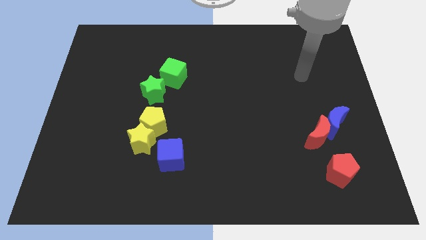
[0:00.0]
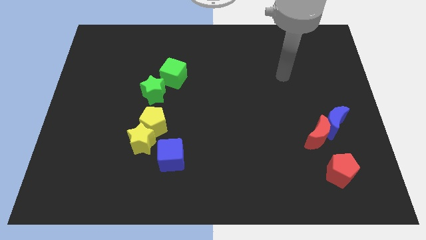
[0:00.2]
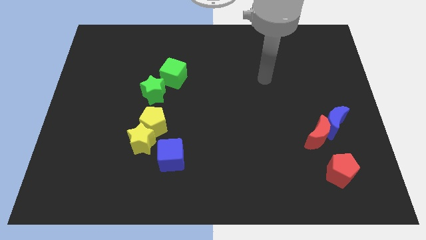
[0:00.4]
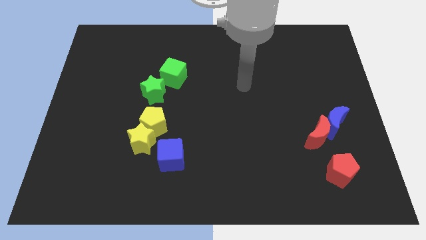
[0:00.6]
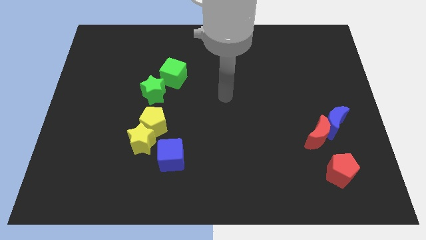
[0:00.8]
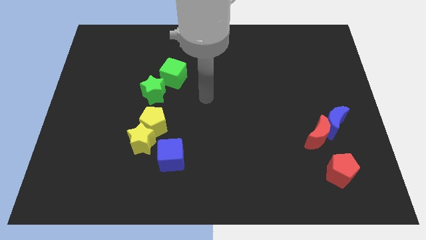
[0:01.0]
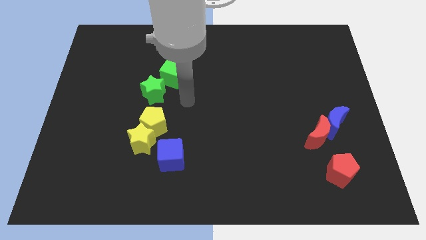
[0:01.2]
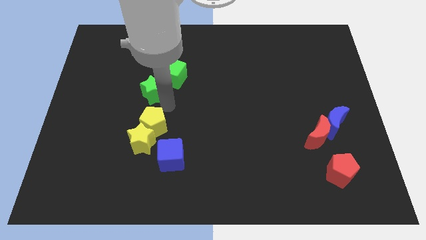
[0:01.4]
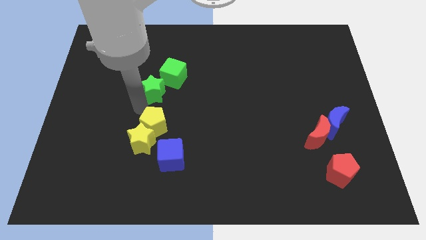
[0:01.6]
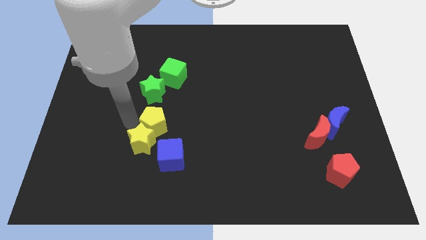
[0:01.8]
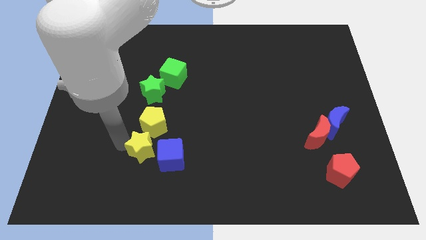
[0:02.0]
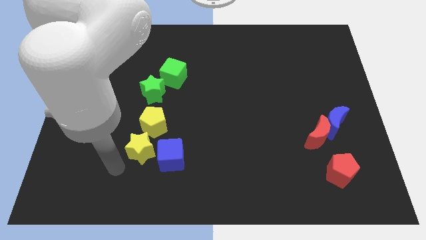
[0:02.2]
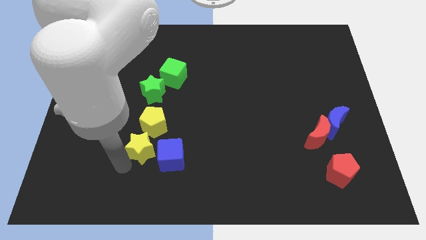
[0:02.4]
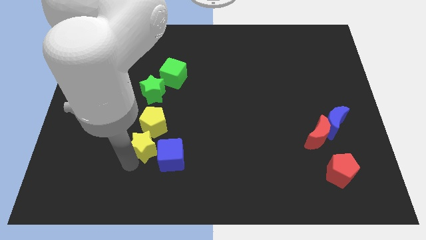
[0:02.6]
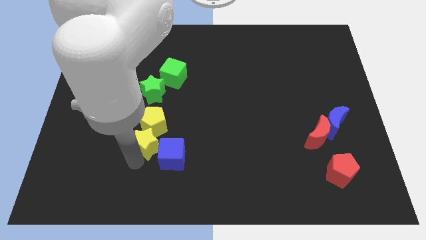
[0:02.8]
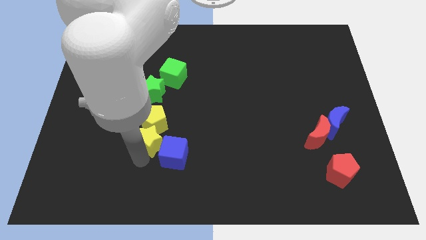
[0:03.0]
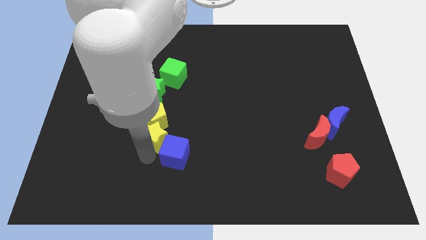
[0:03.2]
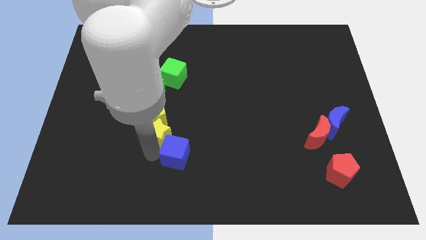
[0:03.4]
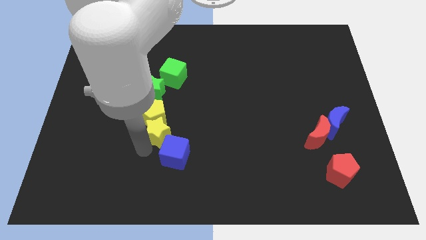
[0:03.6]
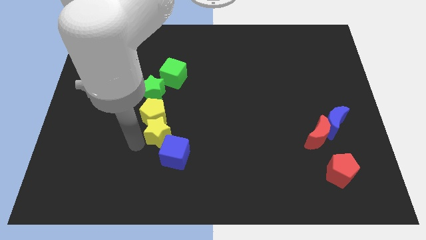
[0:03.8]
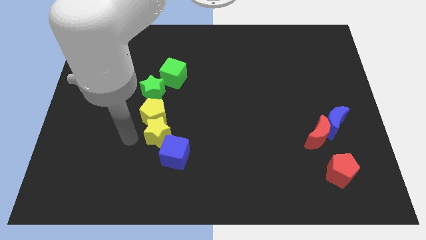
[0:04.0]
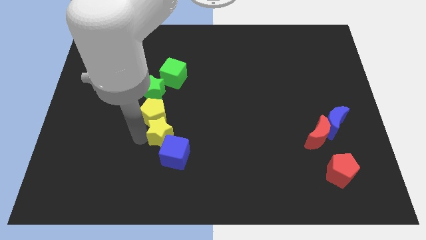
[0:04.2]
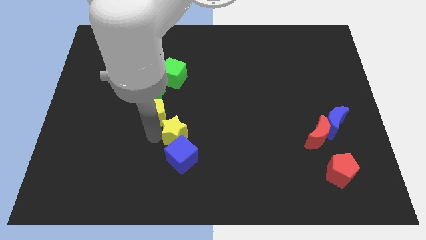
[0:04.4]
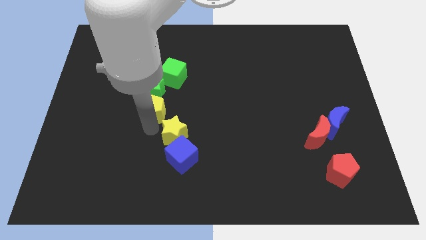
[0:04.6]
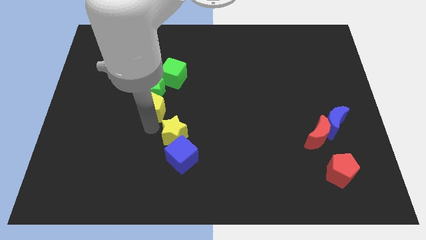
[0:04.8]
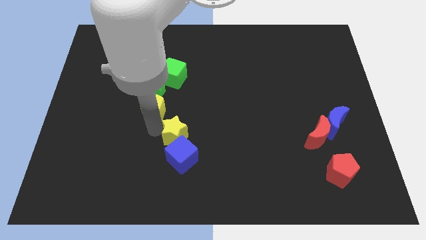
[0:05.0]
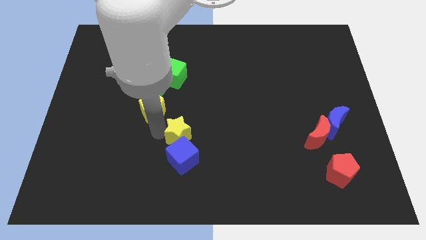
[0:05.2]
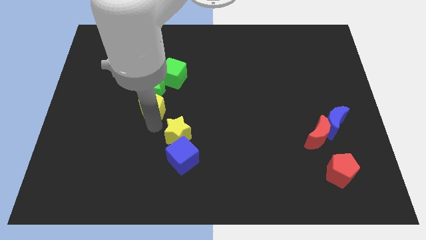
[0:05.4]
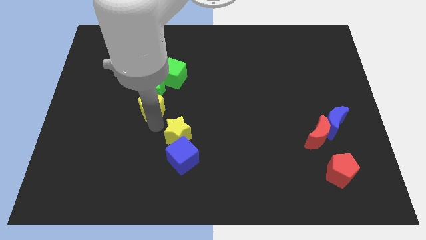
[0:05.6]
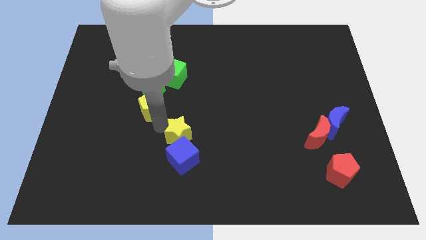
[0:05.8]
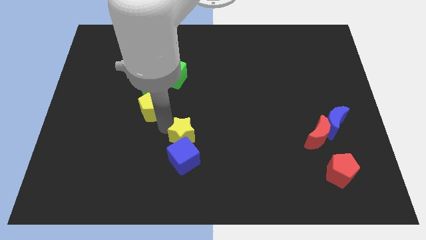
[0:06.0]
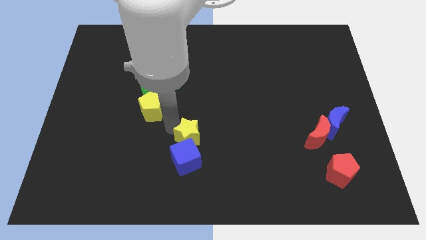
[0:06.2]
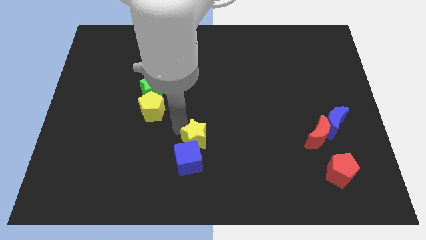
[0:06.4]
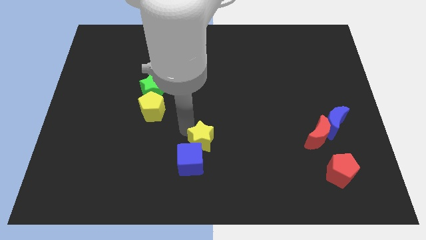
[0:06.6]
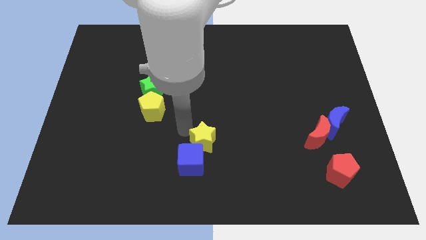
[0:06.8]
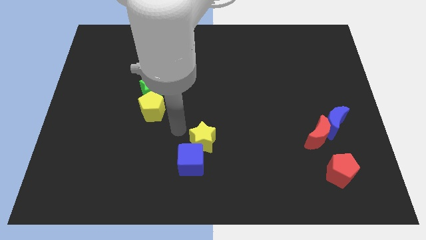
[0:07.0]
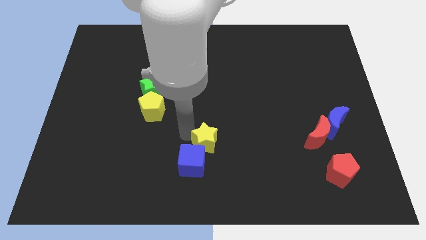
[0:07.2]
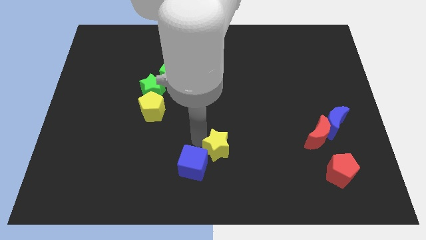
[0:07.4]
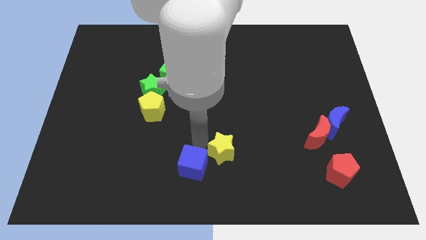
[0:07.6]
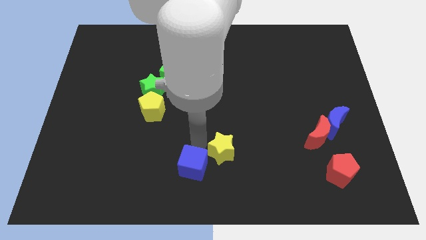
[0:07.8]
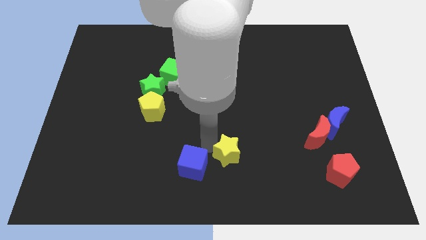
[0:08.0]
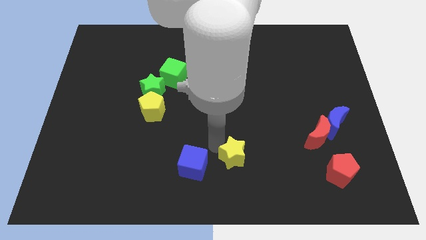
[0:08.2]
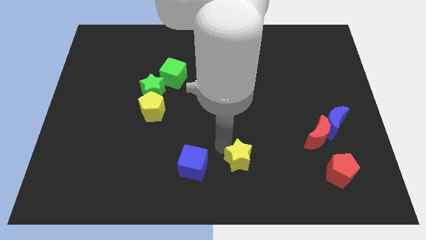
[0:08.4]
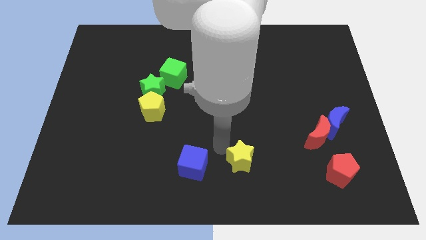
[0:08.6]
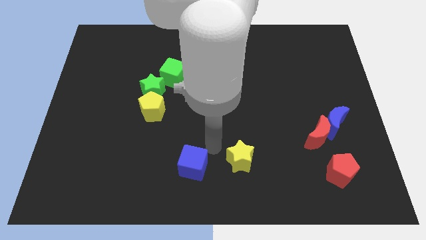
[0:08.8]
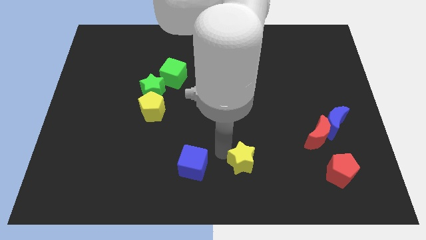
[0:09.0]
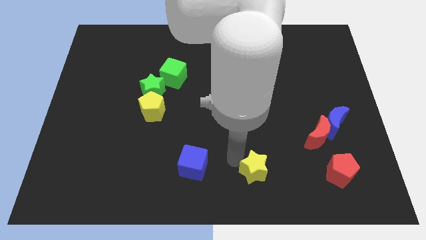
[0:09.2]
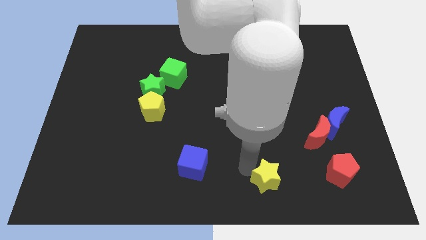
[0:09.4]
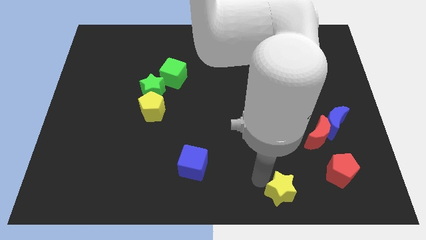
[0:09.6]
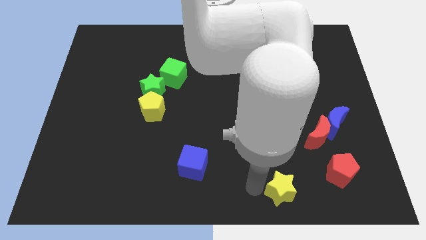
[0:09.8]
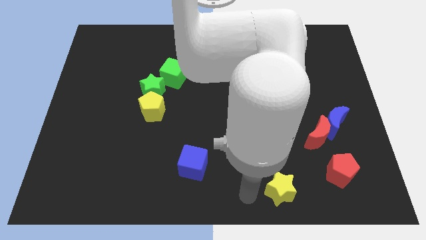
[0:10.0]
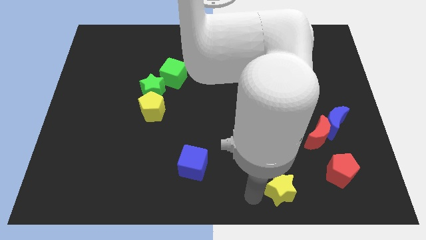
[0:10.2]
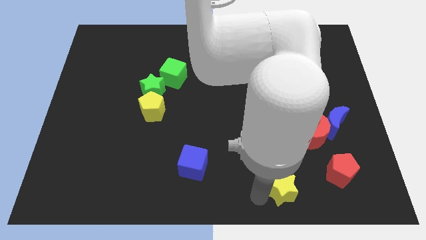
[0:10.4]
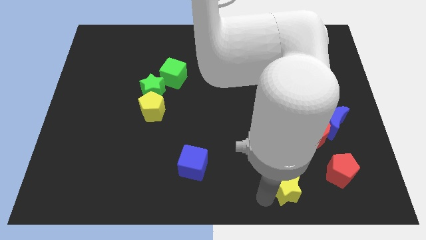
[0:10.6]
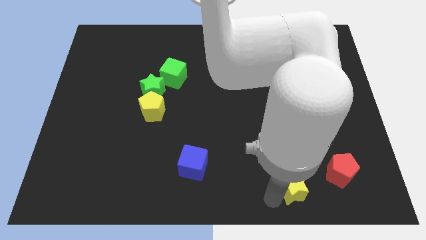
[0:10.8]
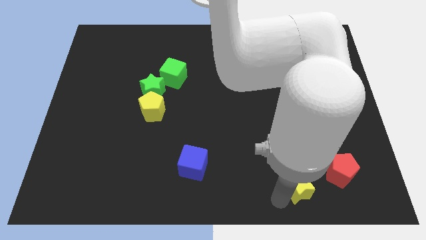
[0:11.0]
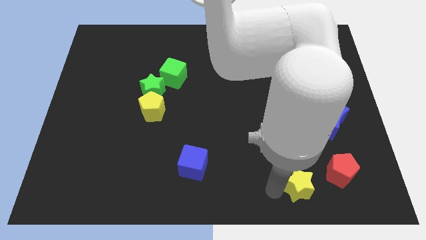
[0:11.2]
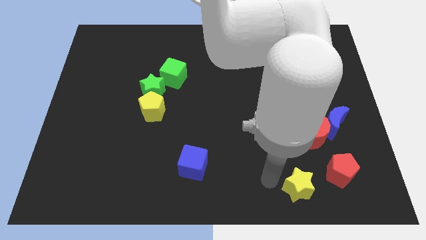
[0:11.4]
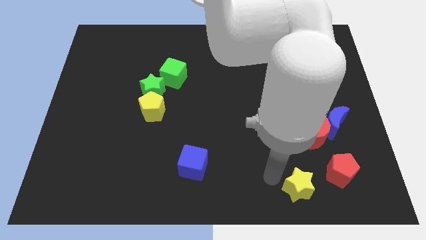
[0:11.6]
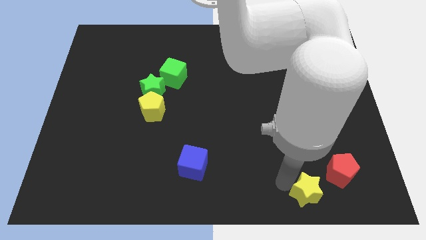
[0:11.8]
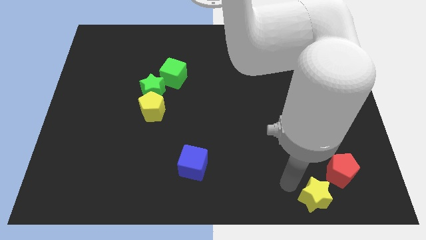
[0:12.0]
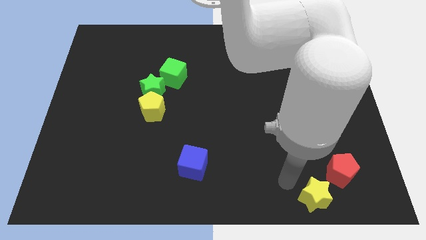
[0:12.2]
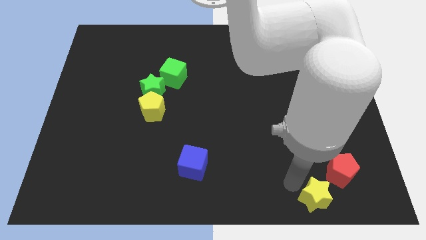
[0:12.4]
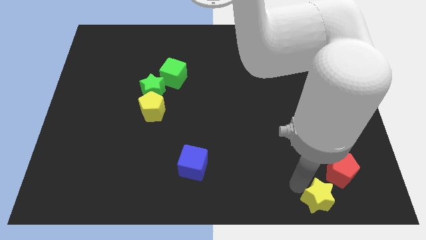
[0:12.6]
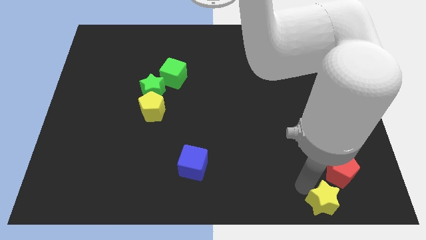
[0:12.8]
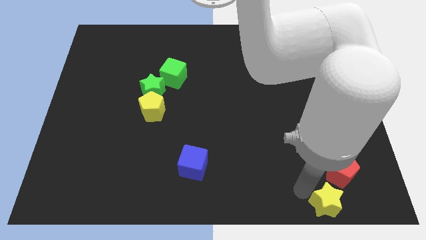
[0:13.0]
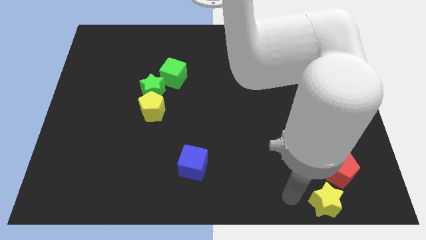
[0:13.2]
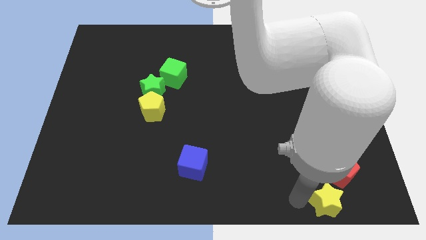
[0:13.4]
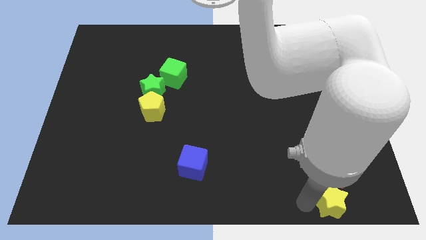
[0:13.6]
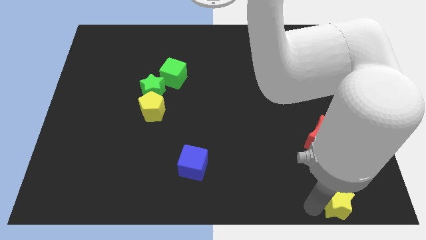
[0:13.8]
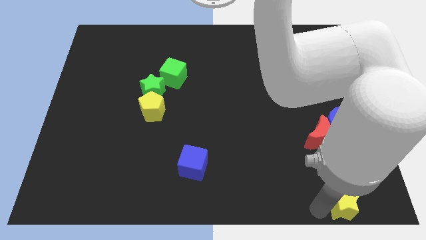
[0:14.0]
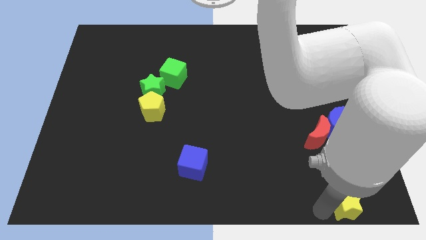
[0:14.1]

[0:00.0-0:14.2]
push the yellow star to the bottom right
